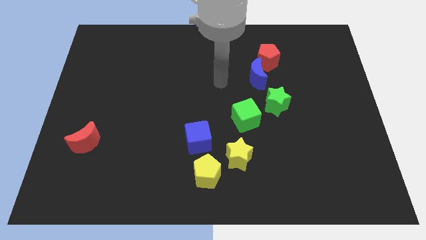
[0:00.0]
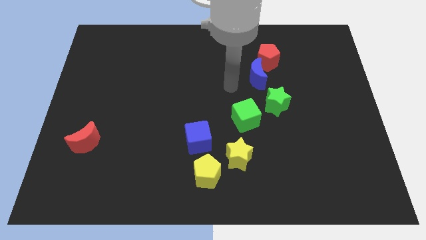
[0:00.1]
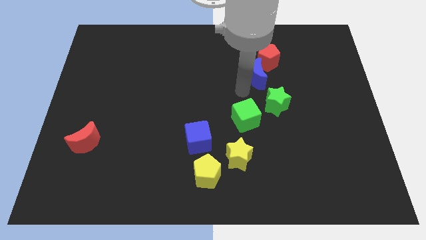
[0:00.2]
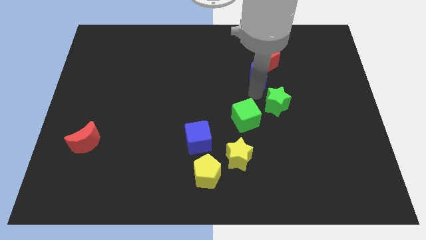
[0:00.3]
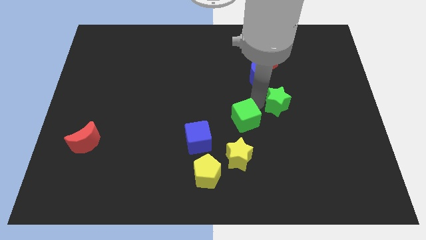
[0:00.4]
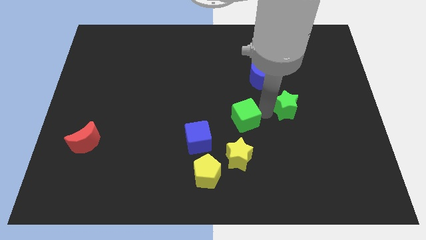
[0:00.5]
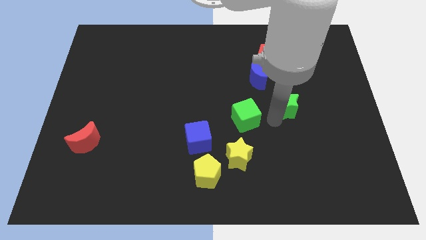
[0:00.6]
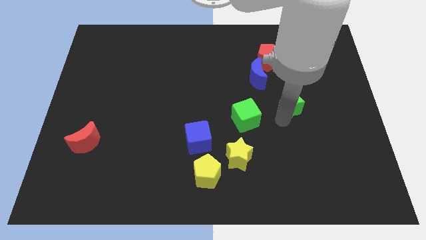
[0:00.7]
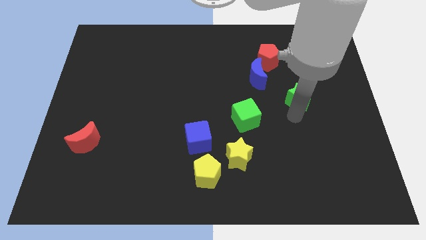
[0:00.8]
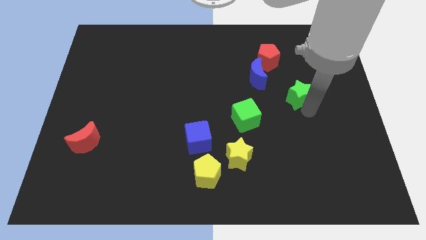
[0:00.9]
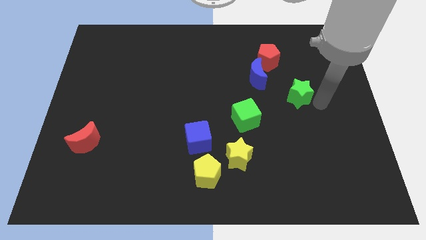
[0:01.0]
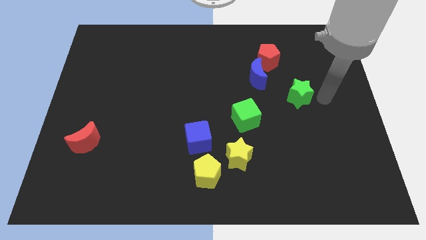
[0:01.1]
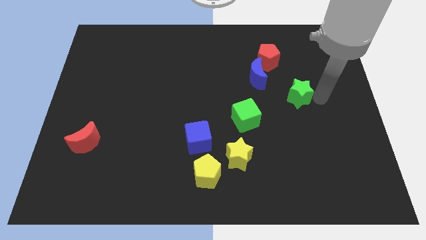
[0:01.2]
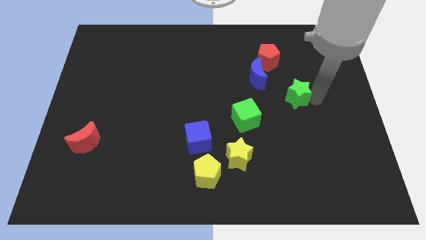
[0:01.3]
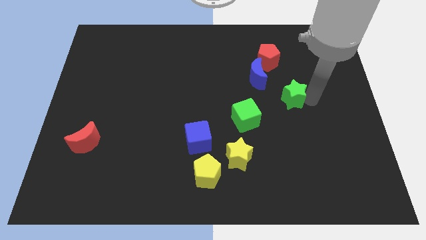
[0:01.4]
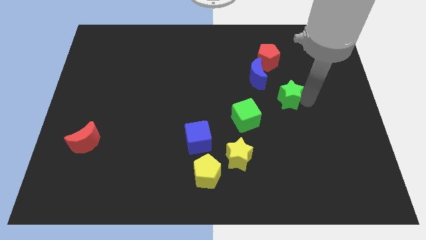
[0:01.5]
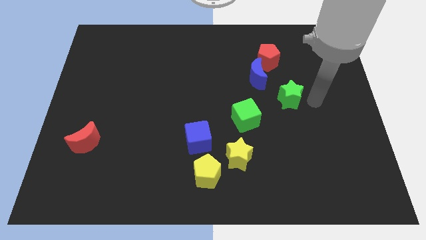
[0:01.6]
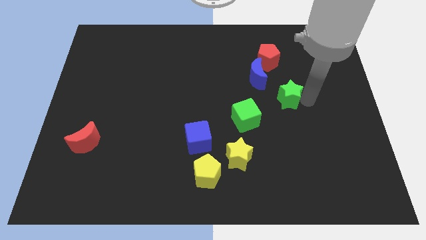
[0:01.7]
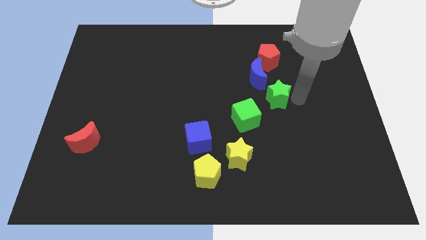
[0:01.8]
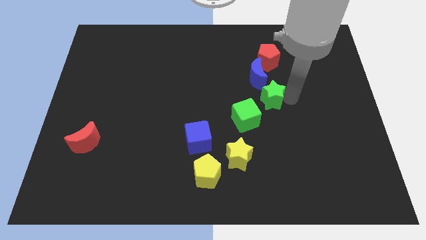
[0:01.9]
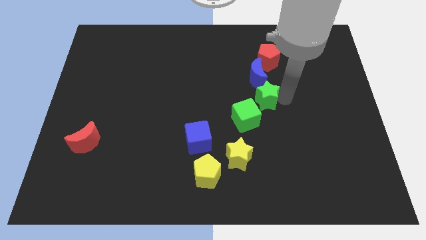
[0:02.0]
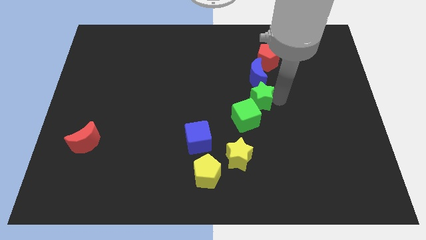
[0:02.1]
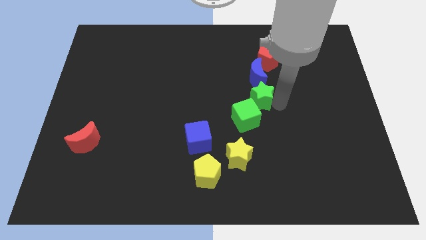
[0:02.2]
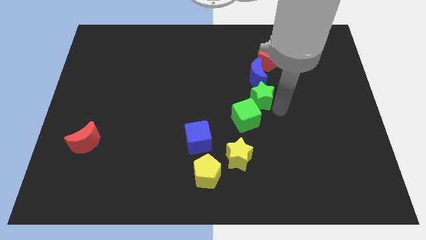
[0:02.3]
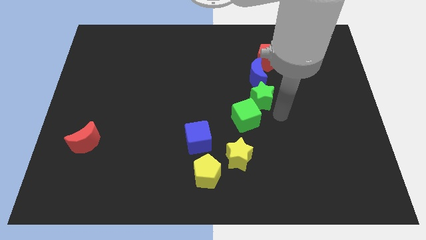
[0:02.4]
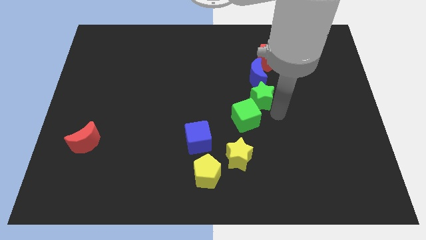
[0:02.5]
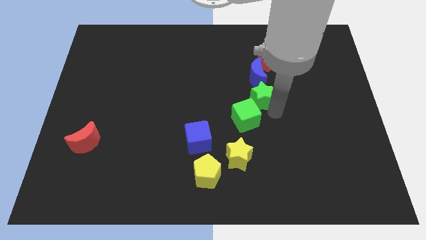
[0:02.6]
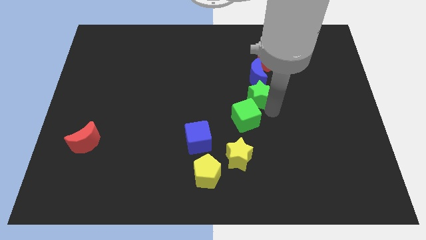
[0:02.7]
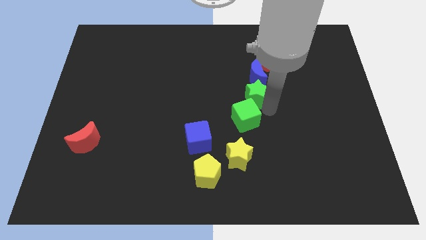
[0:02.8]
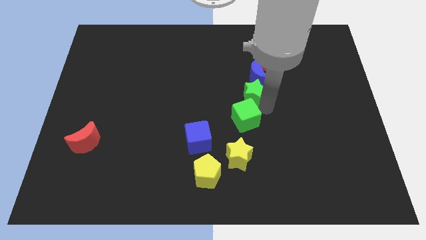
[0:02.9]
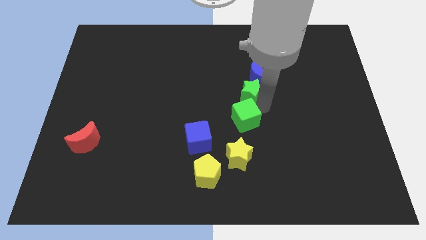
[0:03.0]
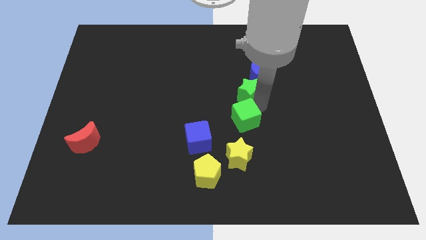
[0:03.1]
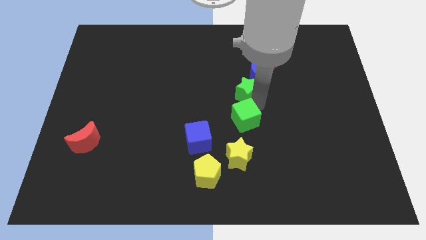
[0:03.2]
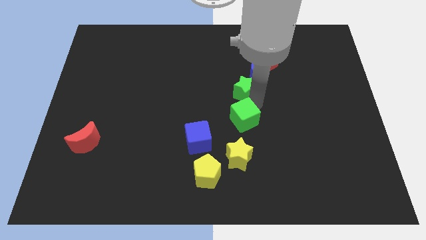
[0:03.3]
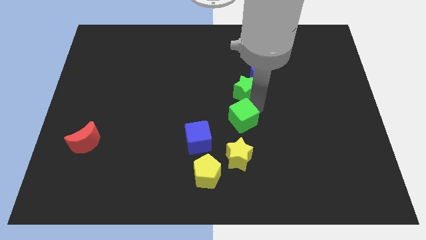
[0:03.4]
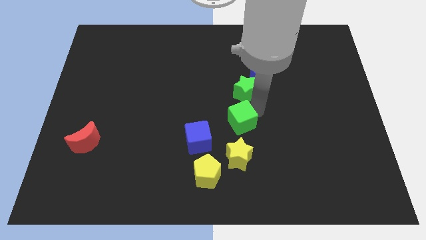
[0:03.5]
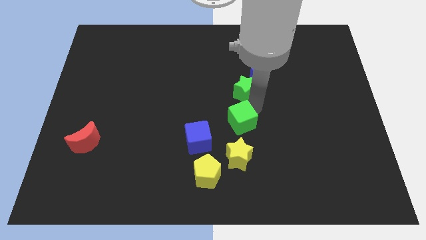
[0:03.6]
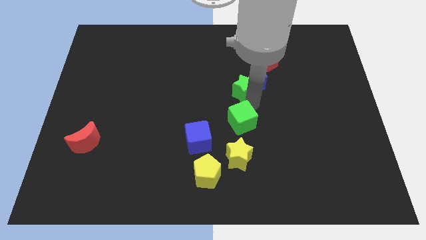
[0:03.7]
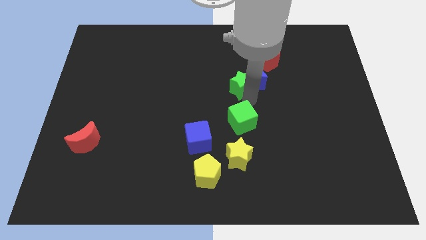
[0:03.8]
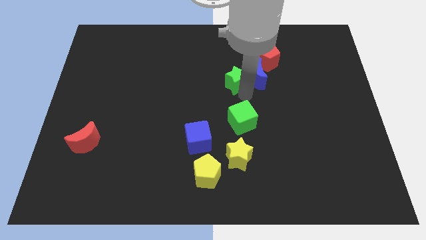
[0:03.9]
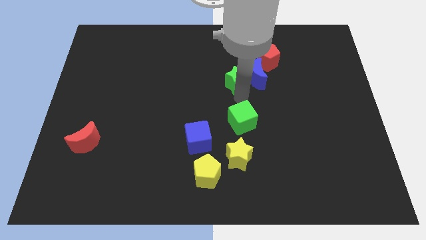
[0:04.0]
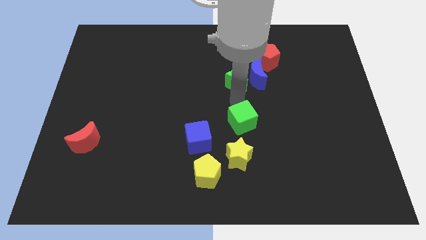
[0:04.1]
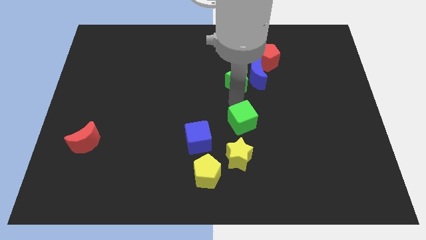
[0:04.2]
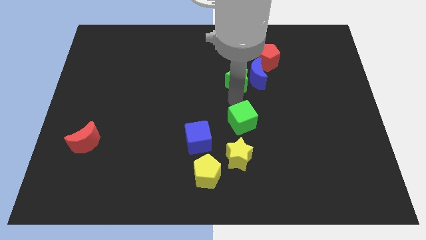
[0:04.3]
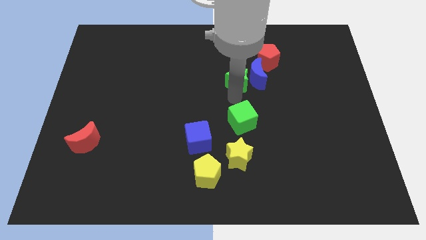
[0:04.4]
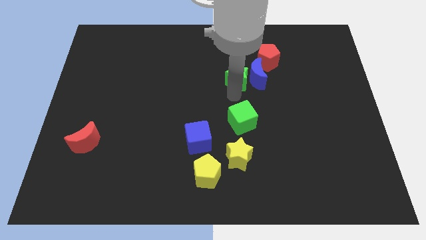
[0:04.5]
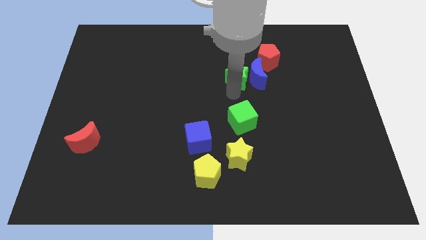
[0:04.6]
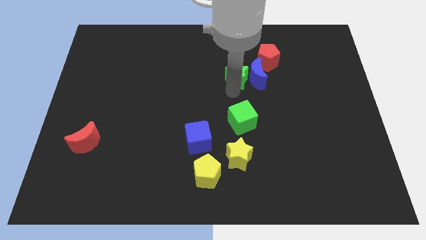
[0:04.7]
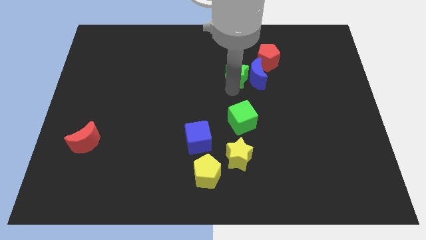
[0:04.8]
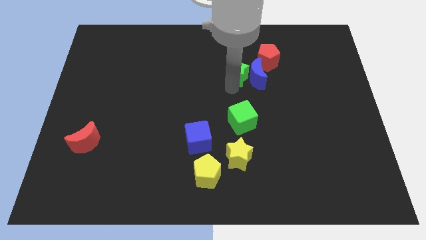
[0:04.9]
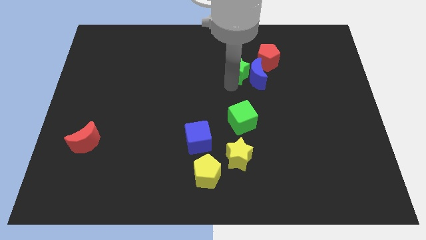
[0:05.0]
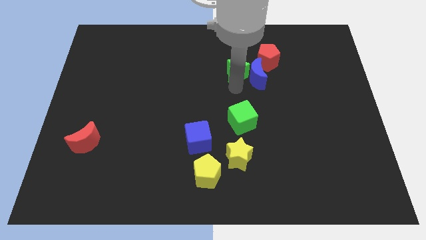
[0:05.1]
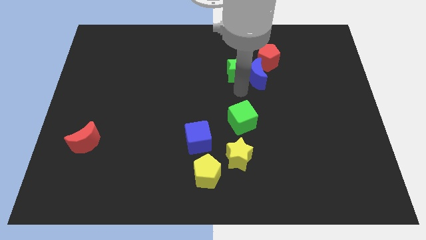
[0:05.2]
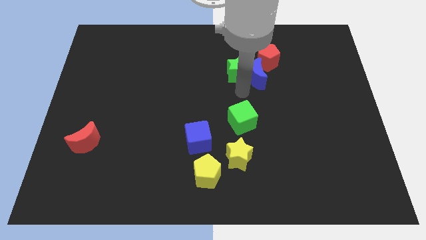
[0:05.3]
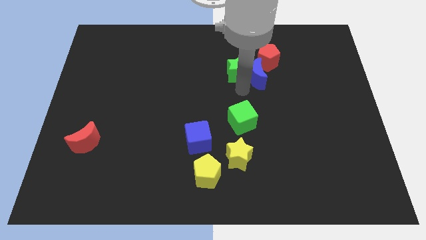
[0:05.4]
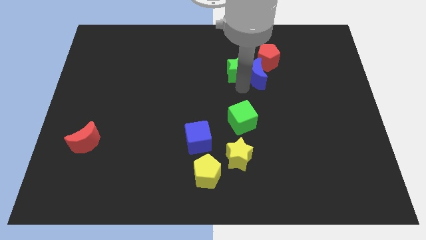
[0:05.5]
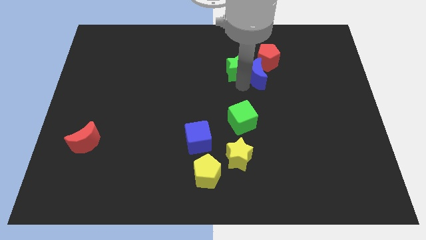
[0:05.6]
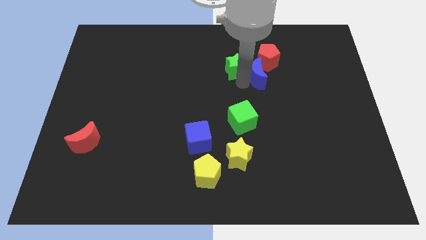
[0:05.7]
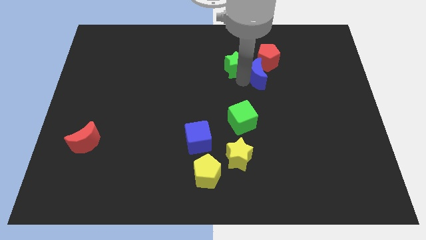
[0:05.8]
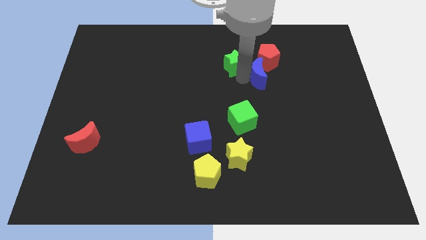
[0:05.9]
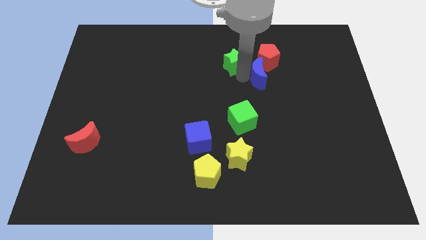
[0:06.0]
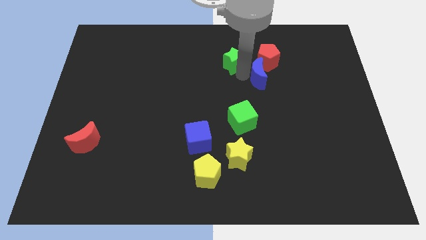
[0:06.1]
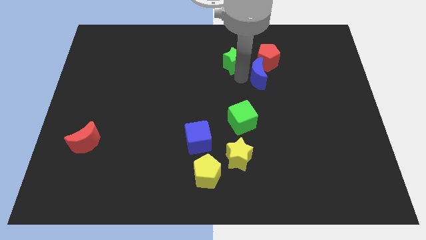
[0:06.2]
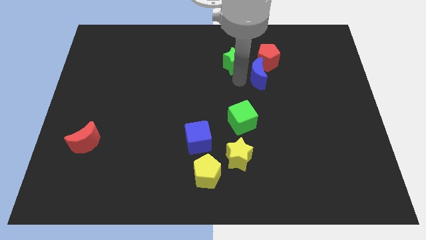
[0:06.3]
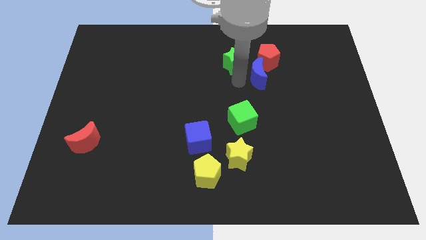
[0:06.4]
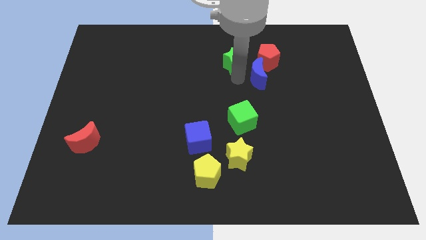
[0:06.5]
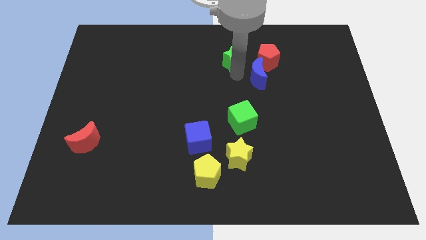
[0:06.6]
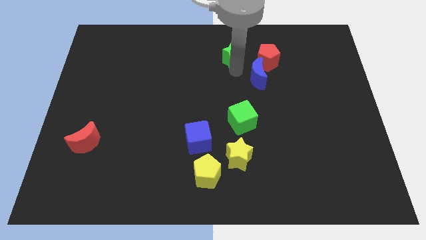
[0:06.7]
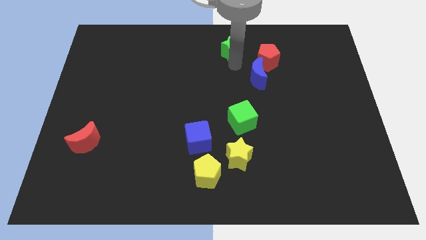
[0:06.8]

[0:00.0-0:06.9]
push the green star to the top
